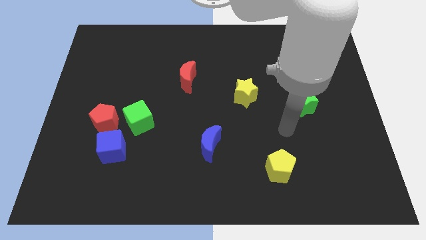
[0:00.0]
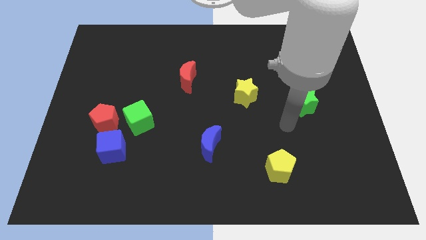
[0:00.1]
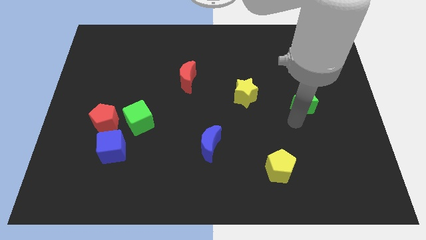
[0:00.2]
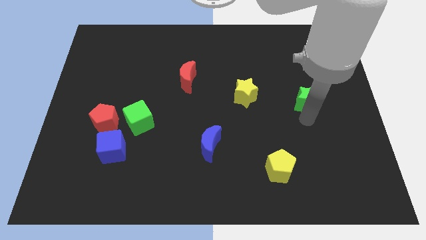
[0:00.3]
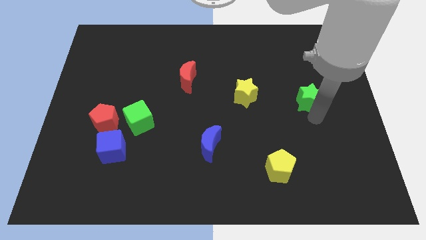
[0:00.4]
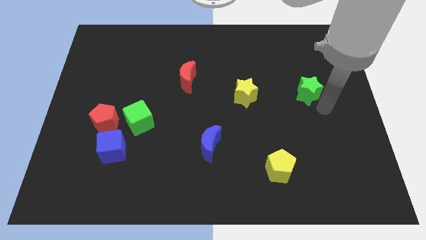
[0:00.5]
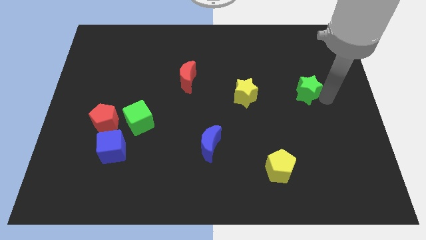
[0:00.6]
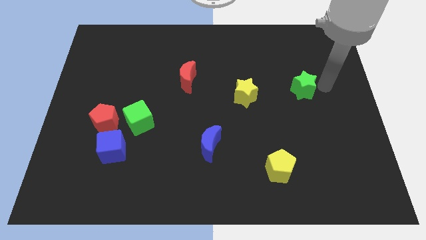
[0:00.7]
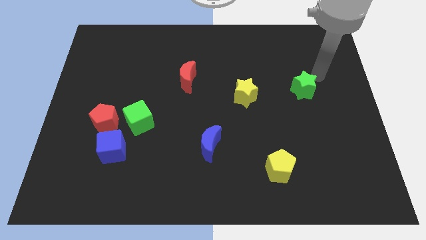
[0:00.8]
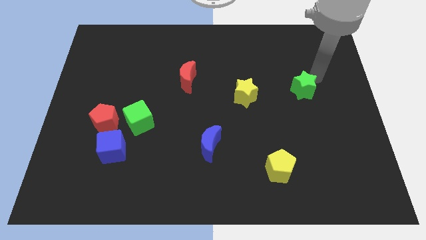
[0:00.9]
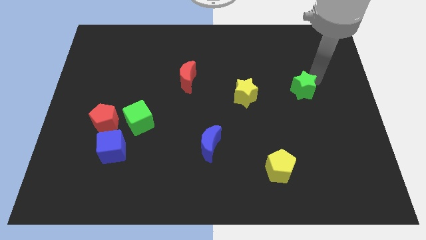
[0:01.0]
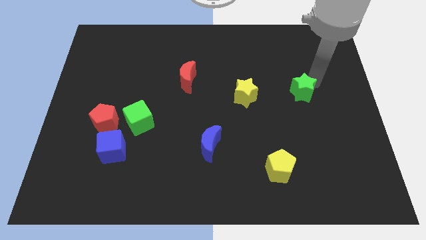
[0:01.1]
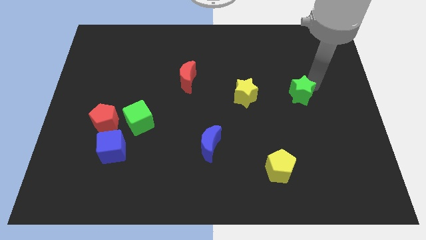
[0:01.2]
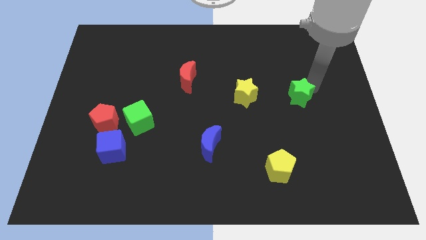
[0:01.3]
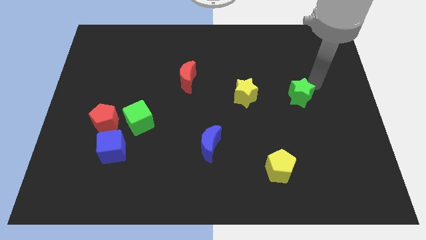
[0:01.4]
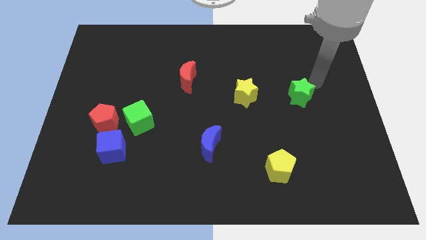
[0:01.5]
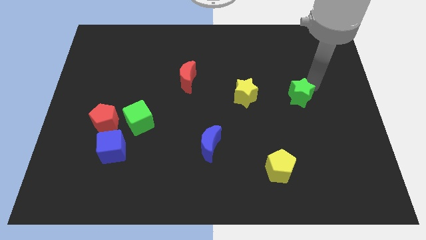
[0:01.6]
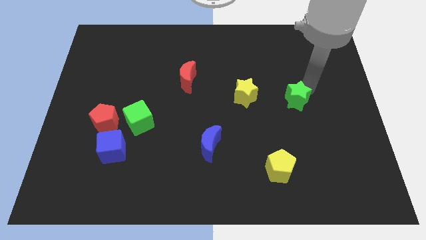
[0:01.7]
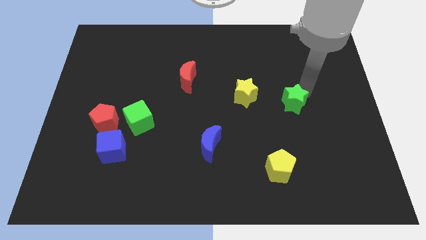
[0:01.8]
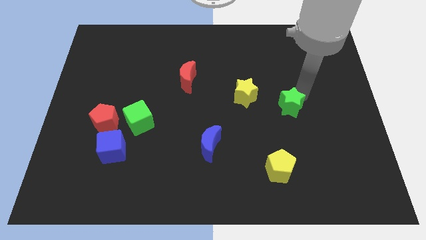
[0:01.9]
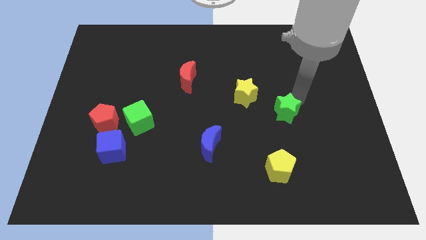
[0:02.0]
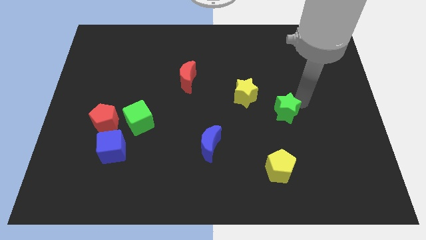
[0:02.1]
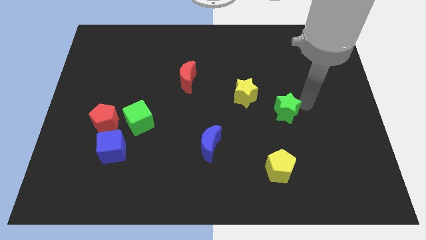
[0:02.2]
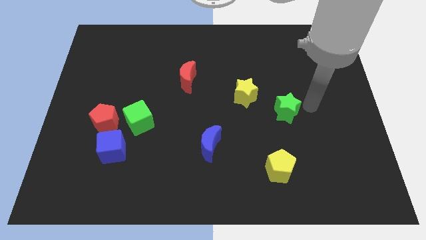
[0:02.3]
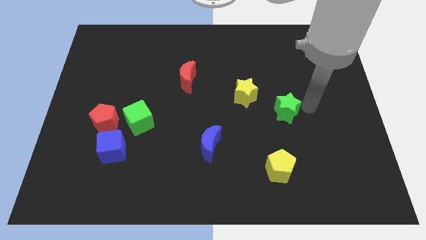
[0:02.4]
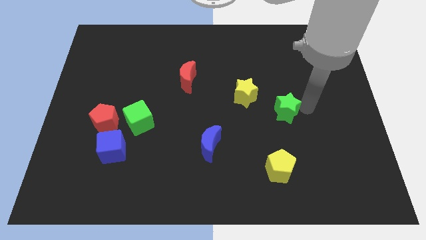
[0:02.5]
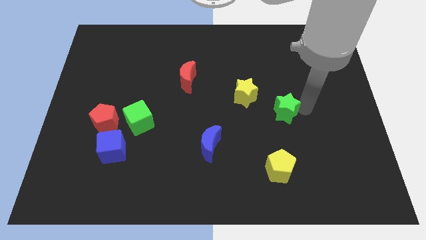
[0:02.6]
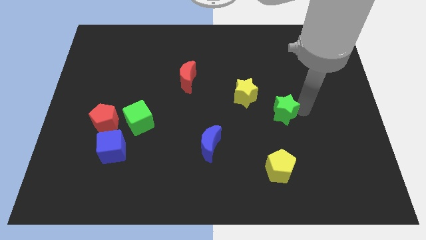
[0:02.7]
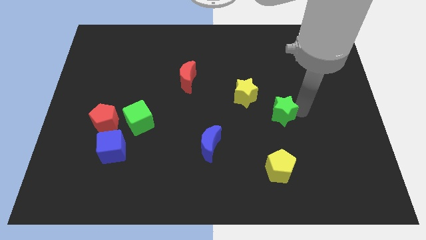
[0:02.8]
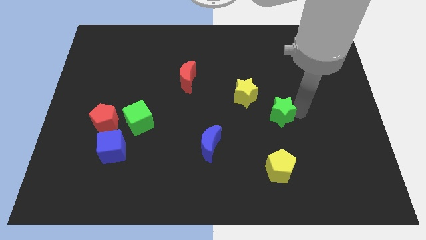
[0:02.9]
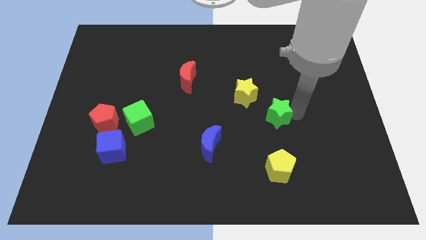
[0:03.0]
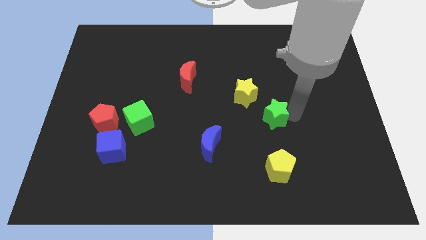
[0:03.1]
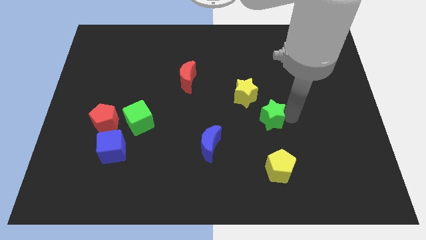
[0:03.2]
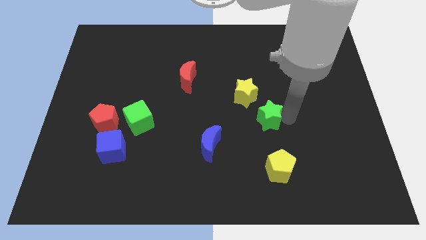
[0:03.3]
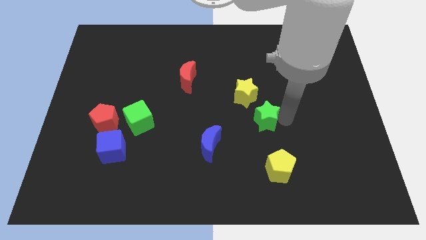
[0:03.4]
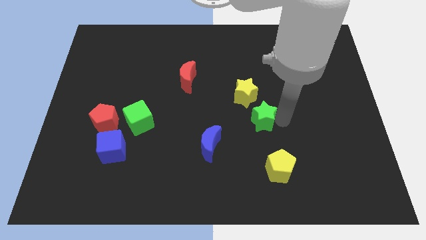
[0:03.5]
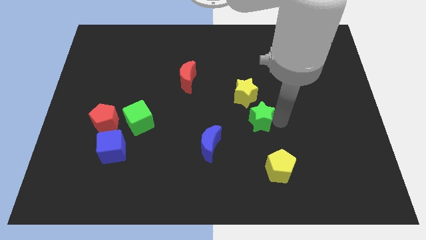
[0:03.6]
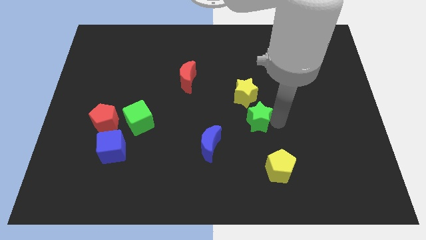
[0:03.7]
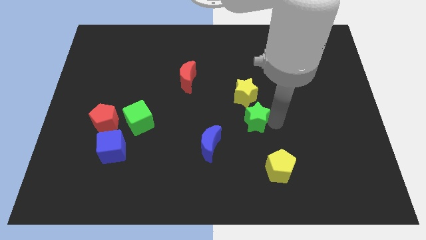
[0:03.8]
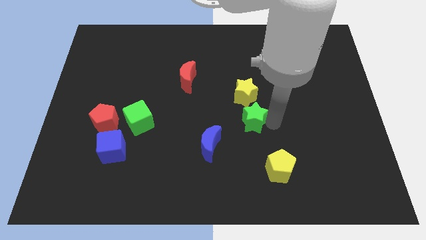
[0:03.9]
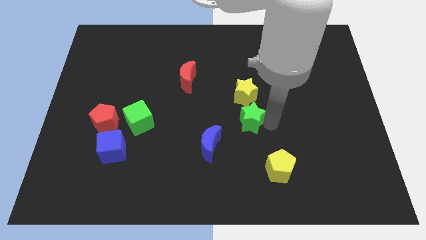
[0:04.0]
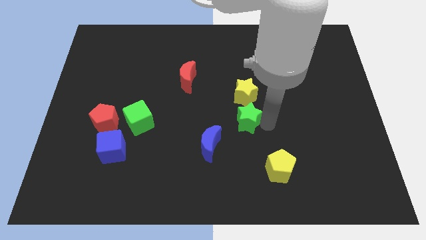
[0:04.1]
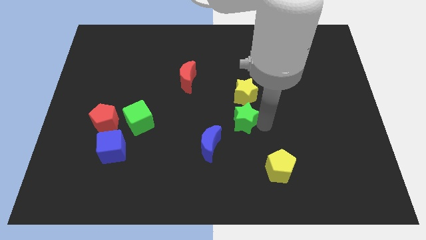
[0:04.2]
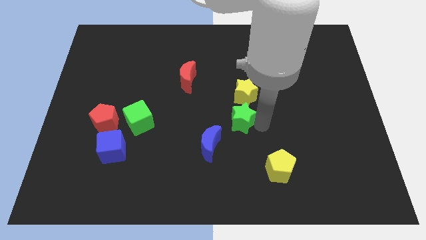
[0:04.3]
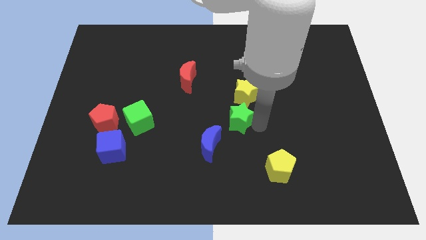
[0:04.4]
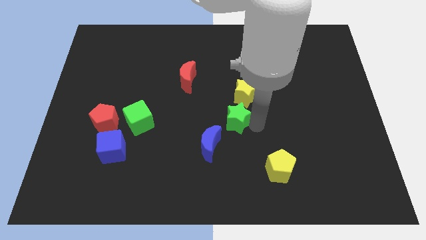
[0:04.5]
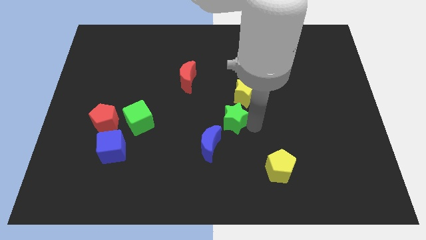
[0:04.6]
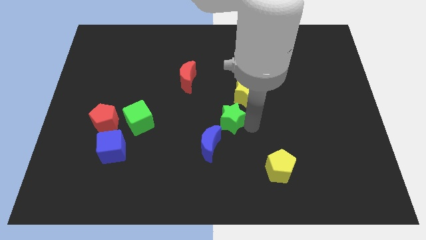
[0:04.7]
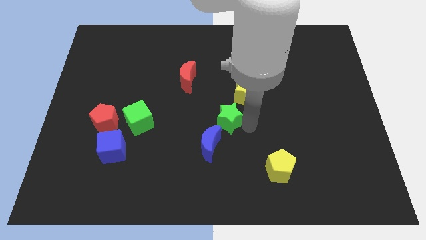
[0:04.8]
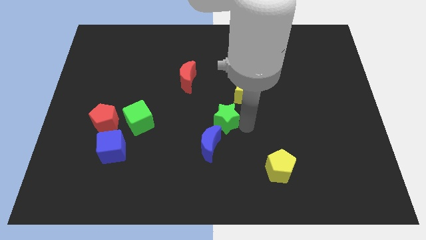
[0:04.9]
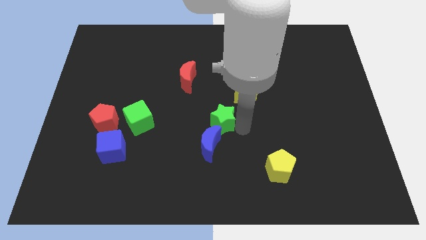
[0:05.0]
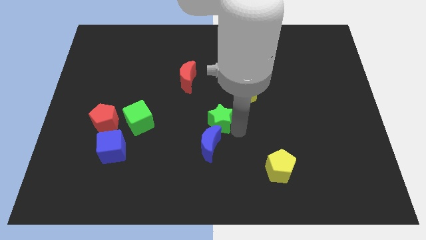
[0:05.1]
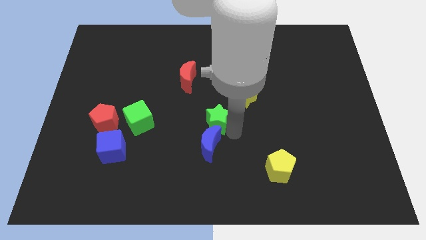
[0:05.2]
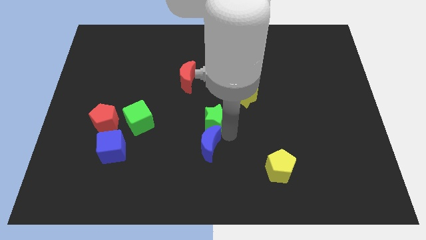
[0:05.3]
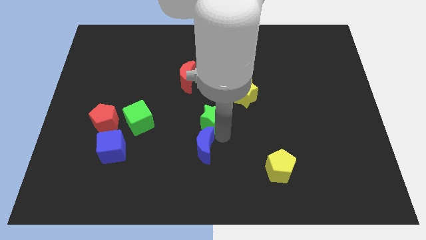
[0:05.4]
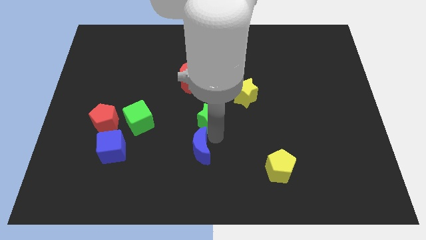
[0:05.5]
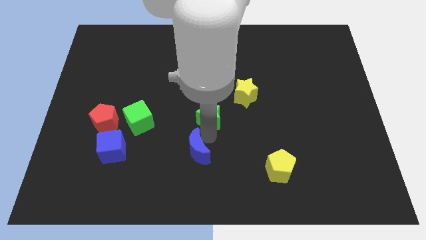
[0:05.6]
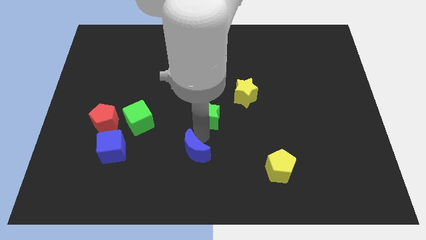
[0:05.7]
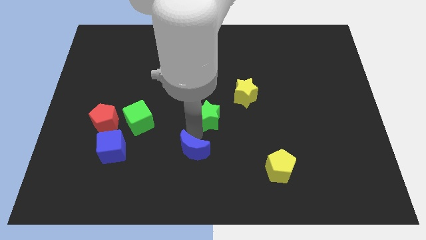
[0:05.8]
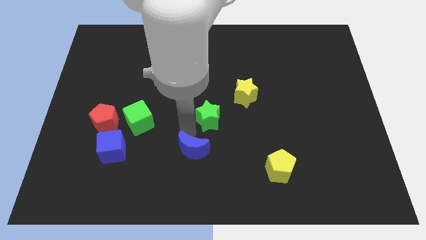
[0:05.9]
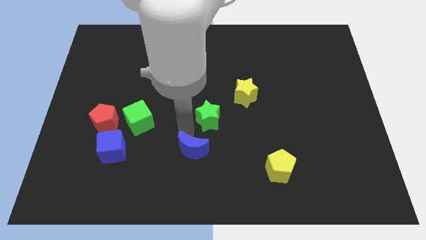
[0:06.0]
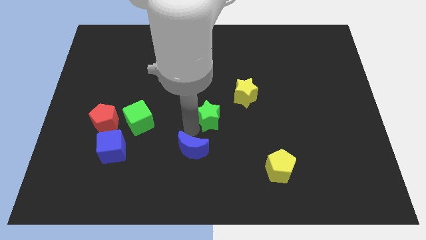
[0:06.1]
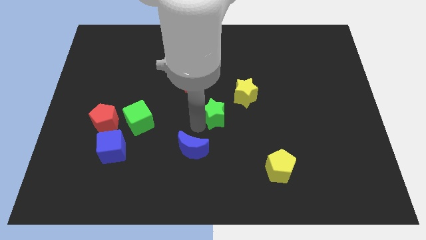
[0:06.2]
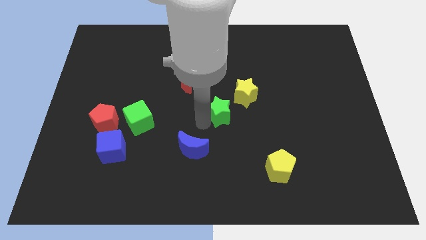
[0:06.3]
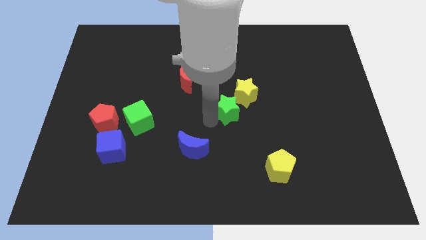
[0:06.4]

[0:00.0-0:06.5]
put the green star just left of the yellow star
